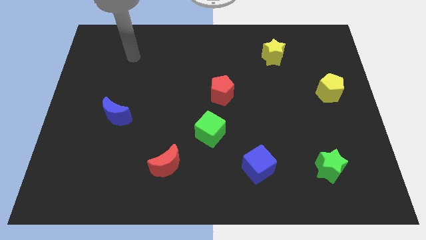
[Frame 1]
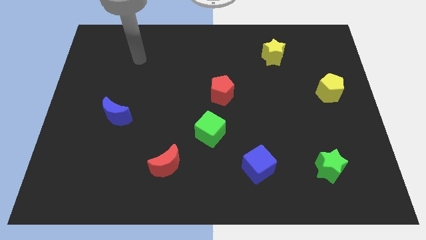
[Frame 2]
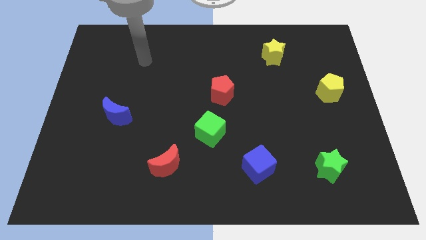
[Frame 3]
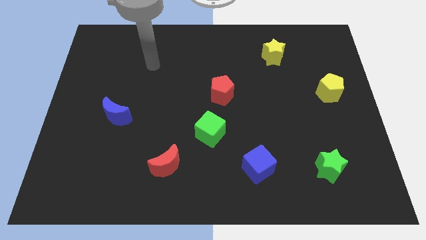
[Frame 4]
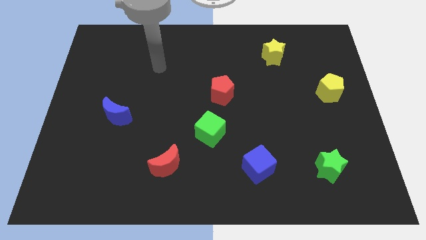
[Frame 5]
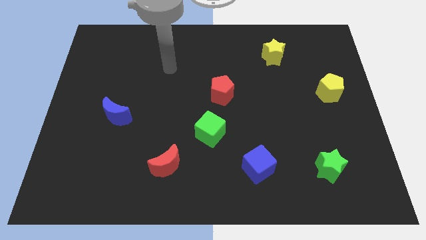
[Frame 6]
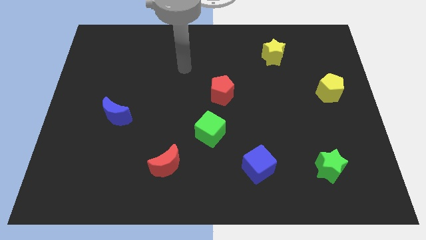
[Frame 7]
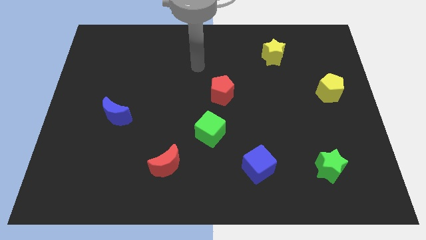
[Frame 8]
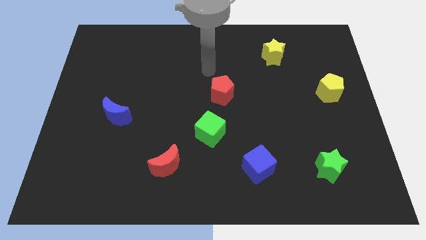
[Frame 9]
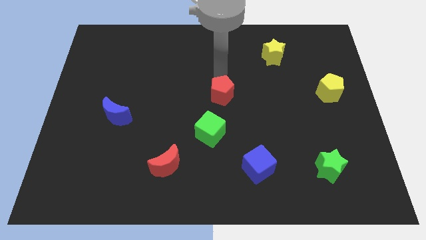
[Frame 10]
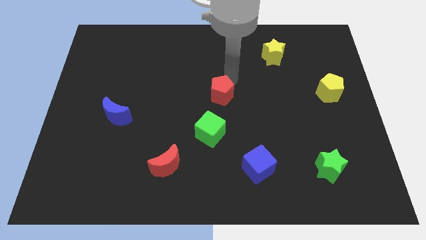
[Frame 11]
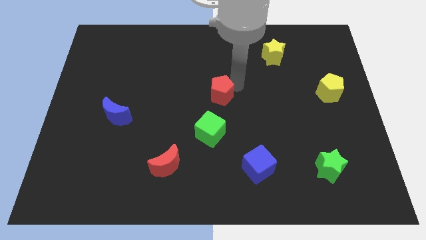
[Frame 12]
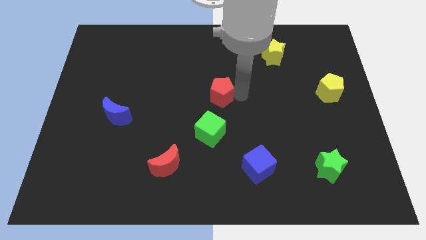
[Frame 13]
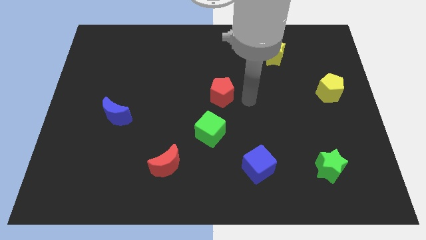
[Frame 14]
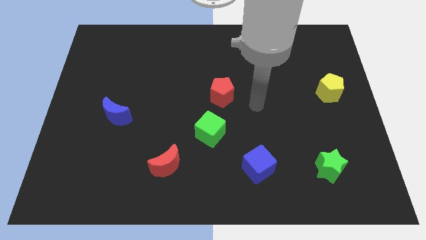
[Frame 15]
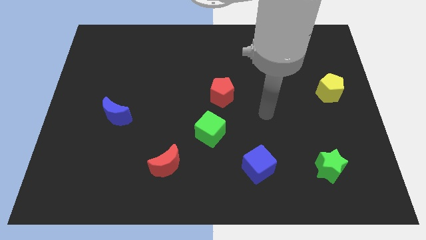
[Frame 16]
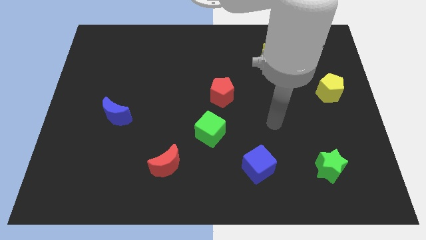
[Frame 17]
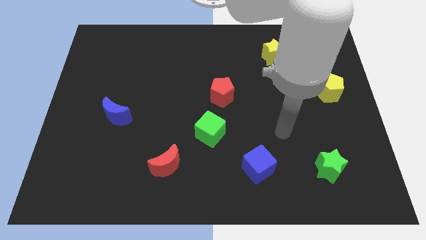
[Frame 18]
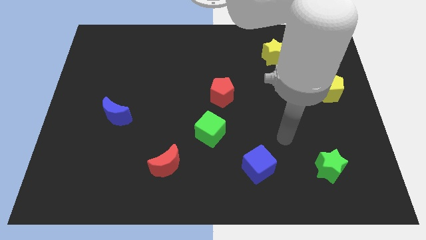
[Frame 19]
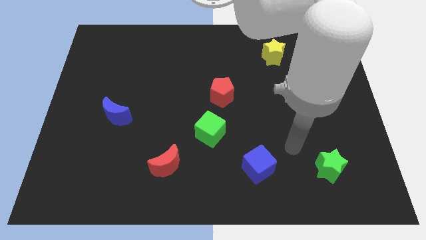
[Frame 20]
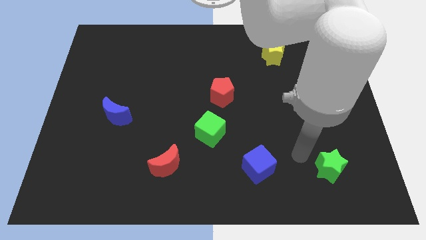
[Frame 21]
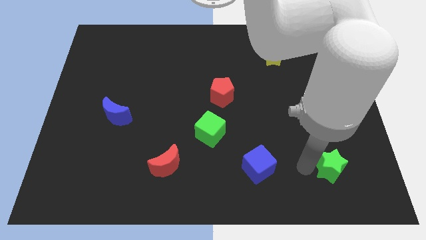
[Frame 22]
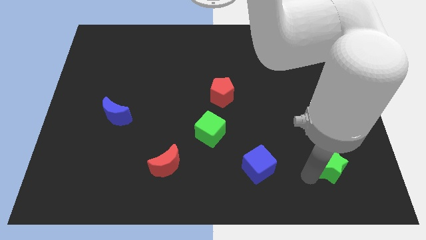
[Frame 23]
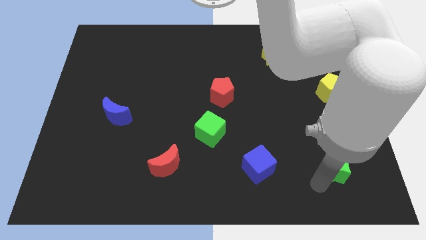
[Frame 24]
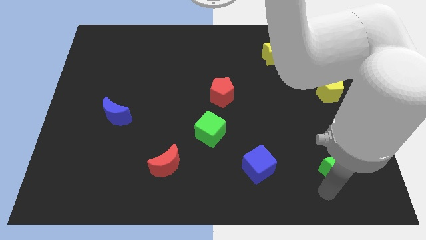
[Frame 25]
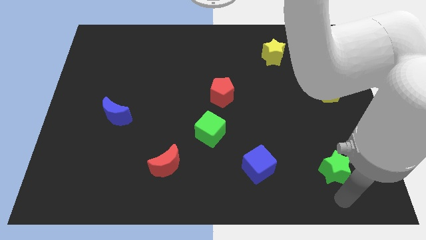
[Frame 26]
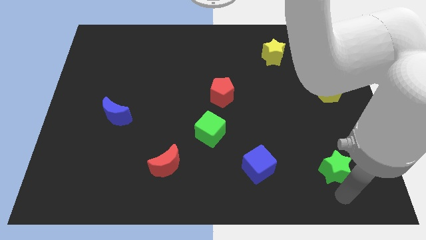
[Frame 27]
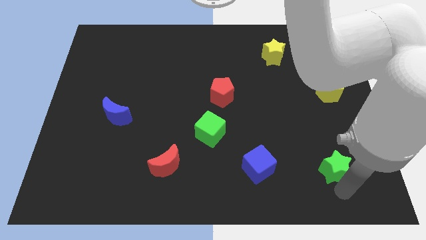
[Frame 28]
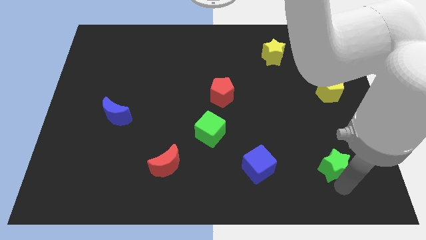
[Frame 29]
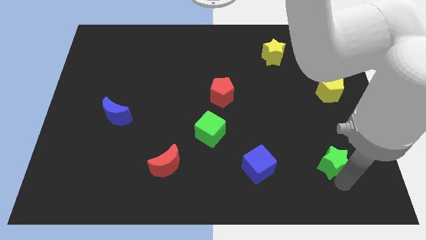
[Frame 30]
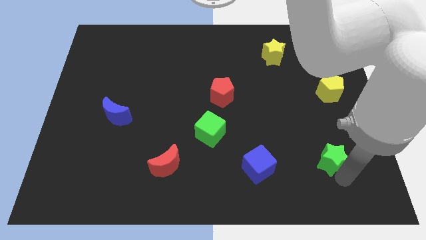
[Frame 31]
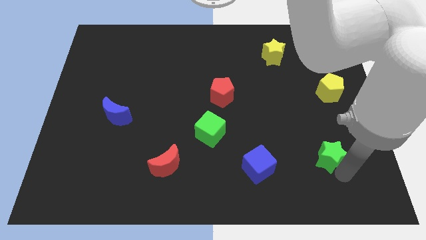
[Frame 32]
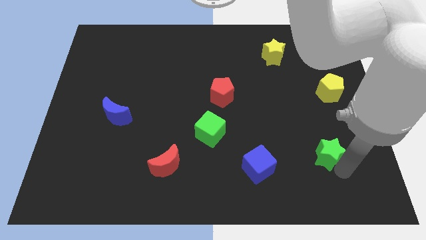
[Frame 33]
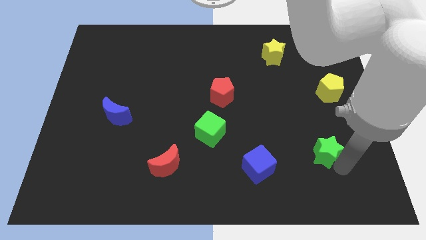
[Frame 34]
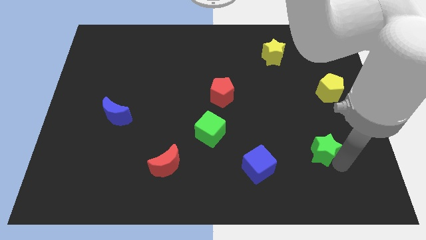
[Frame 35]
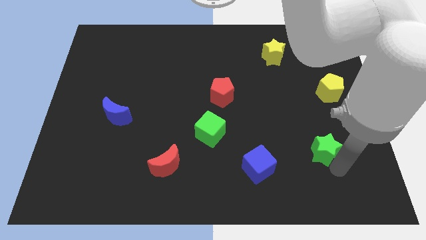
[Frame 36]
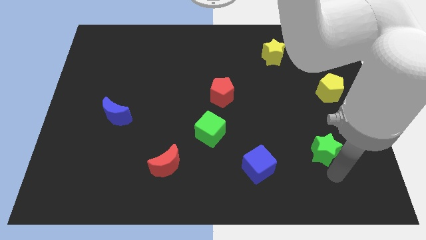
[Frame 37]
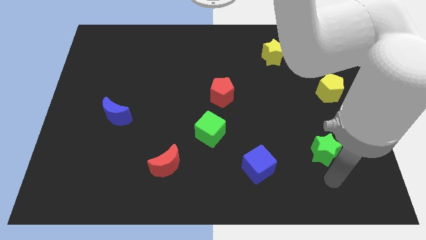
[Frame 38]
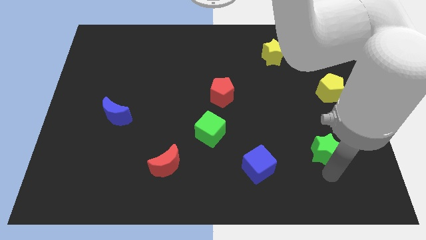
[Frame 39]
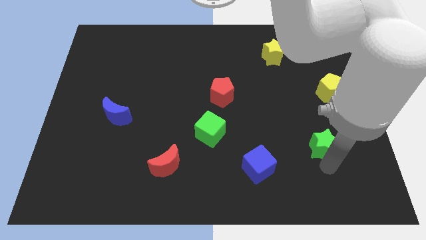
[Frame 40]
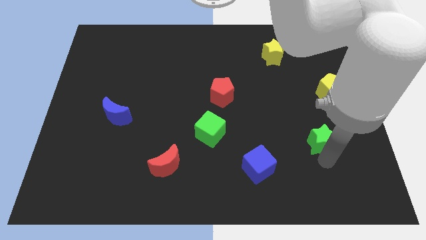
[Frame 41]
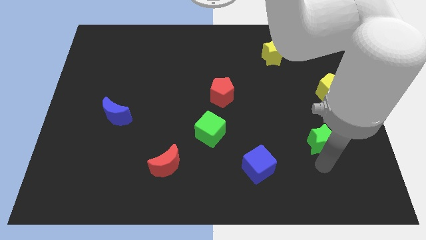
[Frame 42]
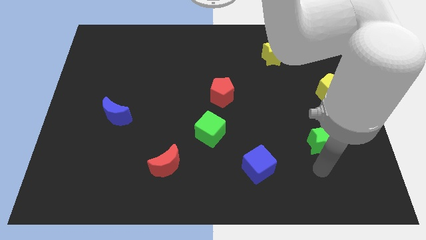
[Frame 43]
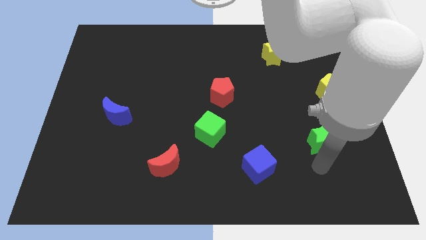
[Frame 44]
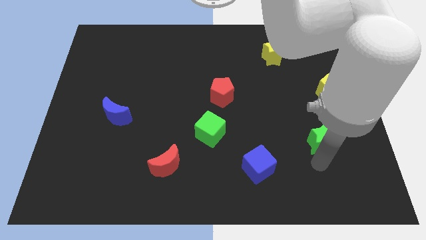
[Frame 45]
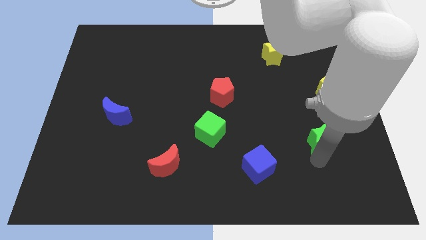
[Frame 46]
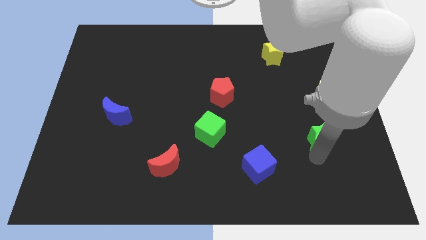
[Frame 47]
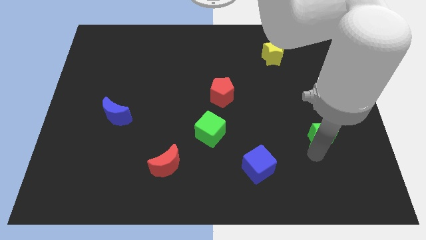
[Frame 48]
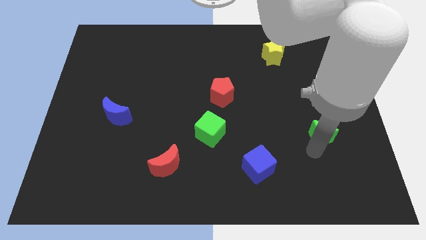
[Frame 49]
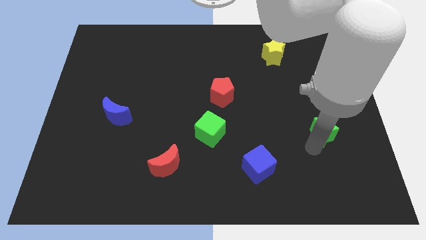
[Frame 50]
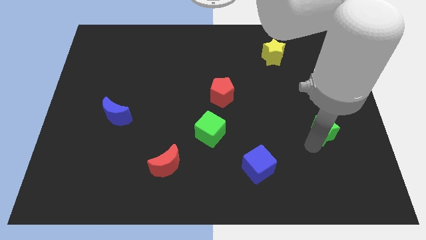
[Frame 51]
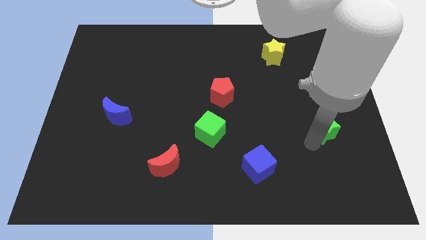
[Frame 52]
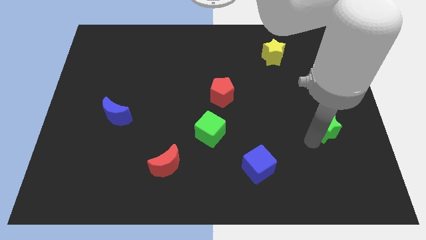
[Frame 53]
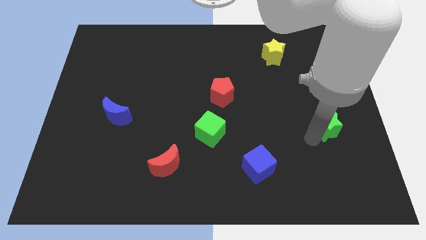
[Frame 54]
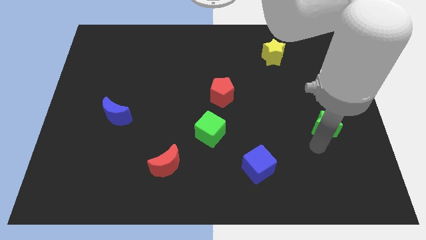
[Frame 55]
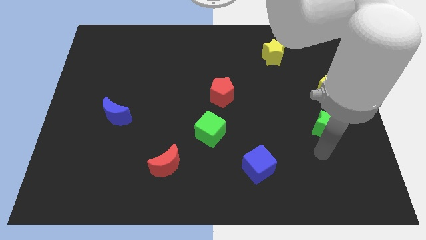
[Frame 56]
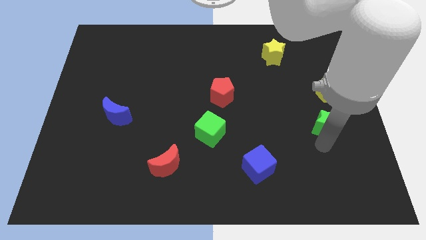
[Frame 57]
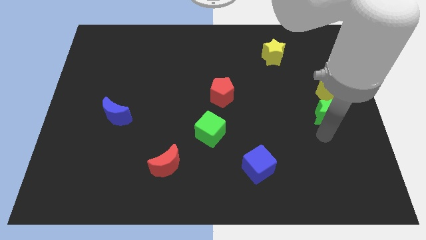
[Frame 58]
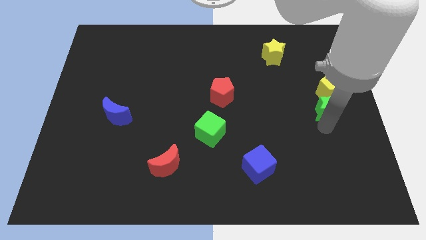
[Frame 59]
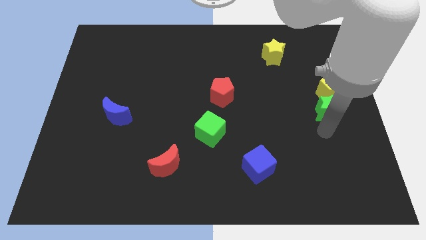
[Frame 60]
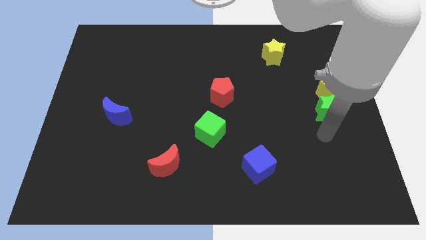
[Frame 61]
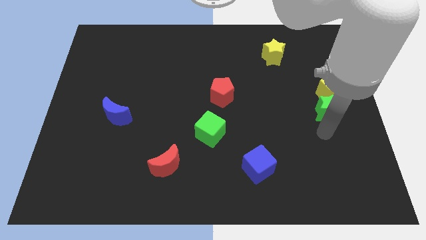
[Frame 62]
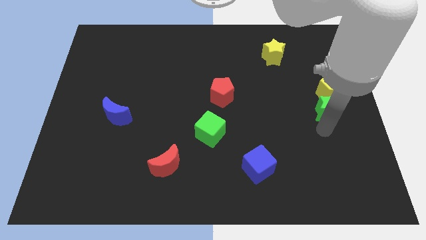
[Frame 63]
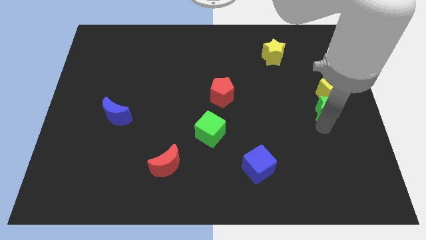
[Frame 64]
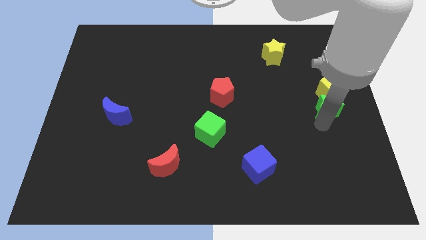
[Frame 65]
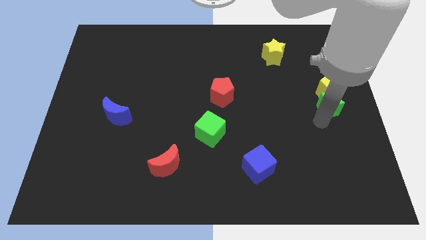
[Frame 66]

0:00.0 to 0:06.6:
slide the green star to the yellow pentagon

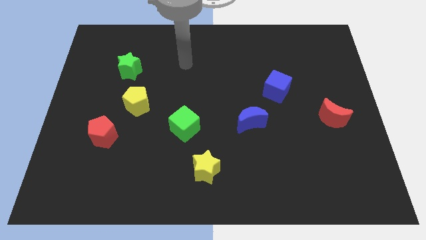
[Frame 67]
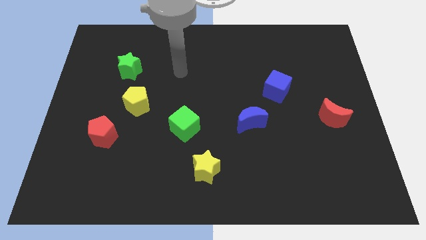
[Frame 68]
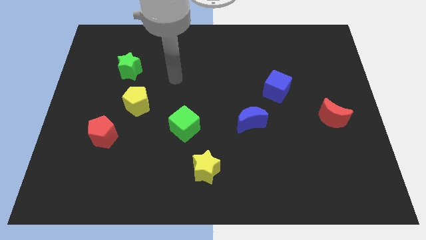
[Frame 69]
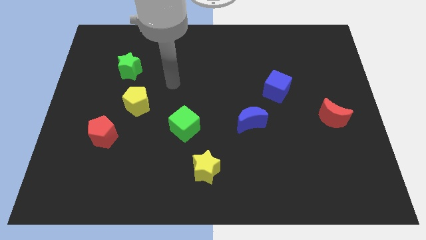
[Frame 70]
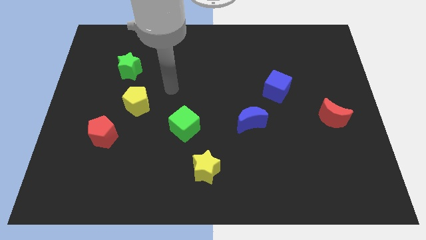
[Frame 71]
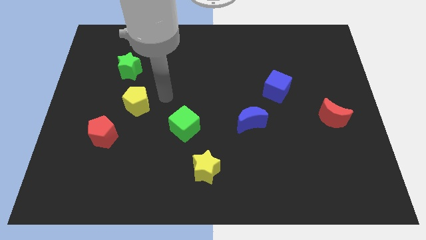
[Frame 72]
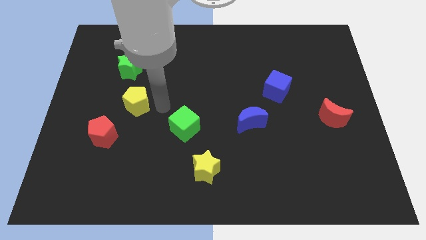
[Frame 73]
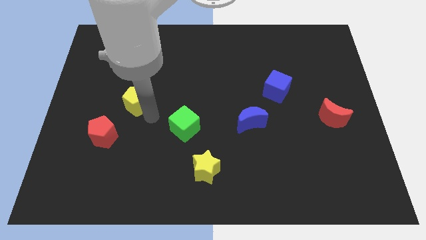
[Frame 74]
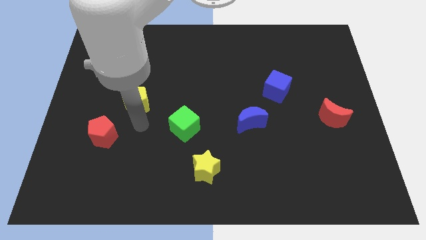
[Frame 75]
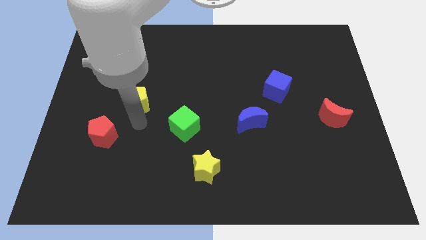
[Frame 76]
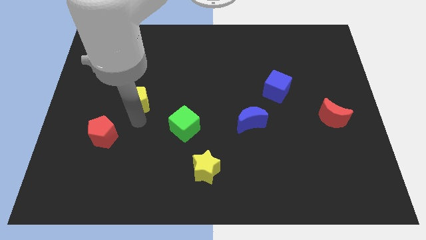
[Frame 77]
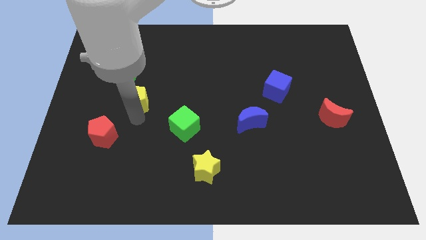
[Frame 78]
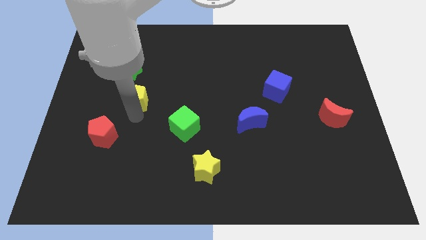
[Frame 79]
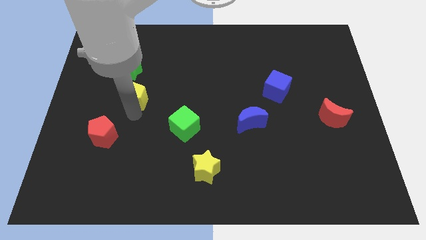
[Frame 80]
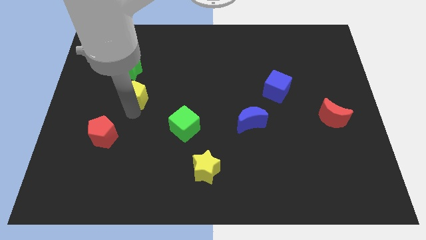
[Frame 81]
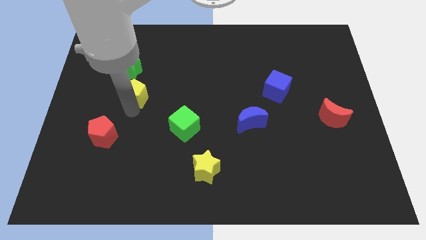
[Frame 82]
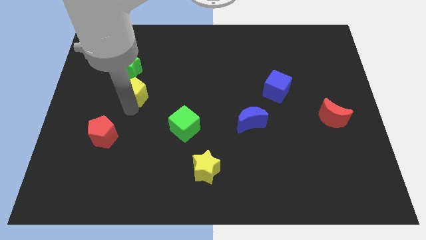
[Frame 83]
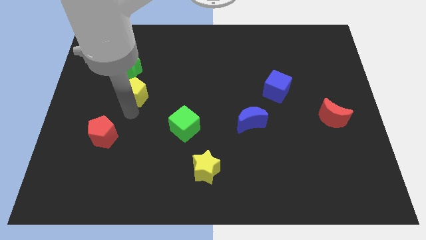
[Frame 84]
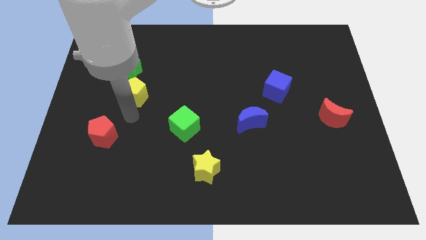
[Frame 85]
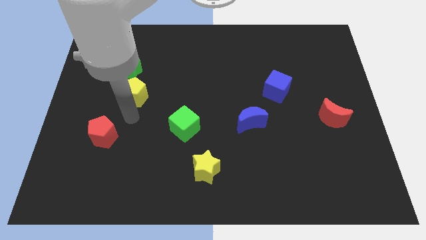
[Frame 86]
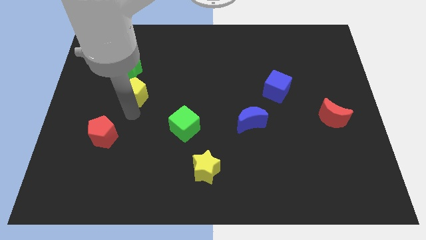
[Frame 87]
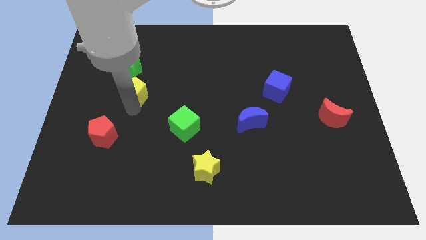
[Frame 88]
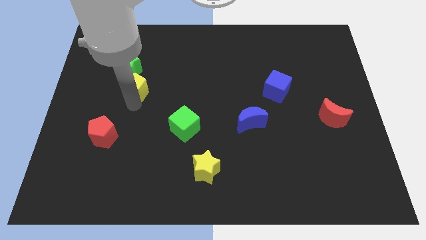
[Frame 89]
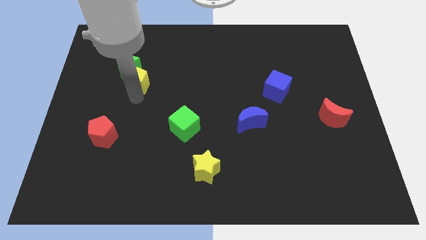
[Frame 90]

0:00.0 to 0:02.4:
put the yellow pentagon next to the green star
